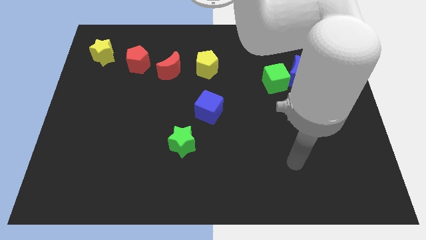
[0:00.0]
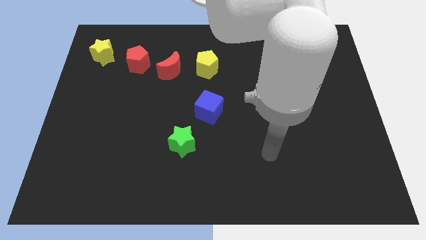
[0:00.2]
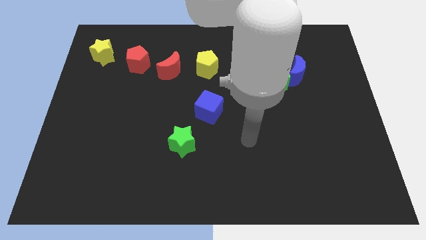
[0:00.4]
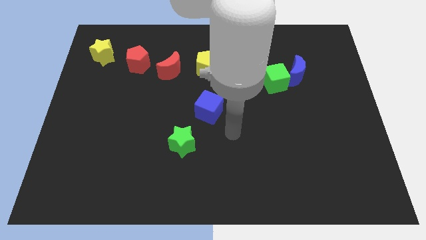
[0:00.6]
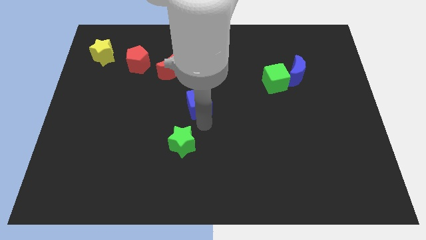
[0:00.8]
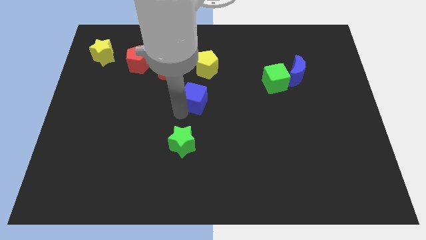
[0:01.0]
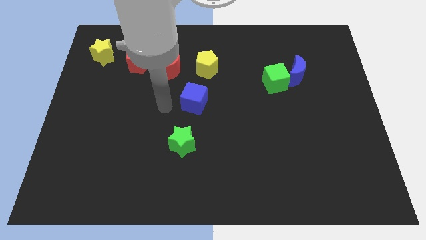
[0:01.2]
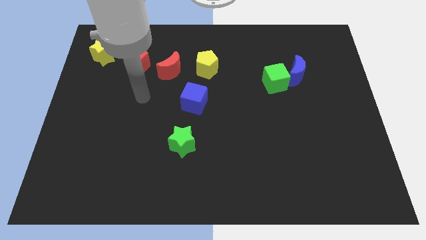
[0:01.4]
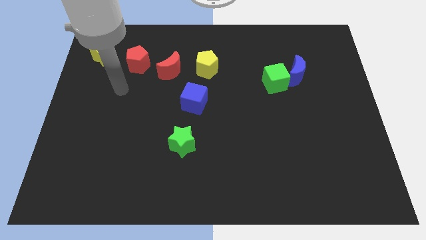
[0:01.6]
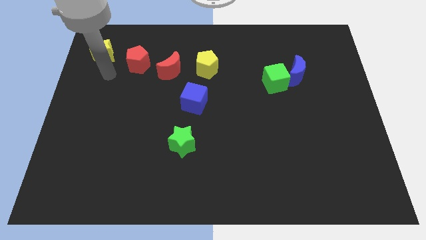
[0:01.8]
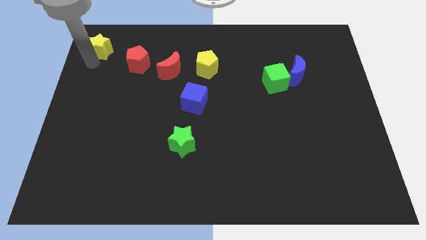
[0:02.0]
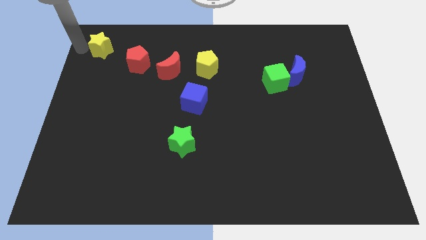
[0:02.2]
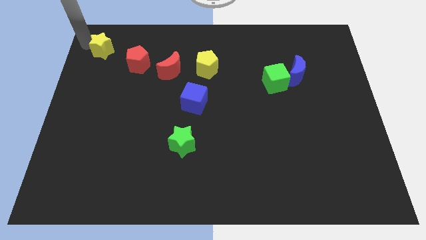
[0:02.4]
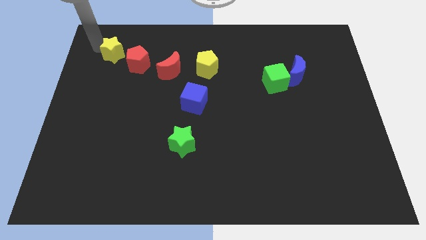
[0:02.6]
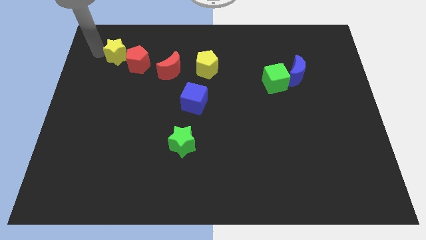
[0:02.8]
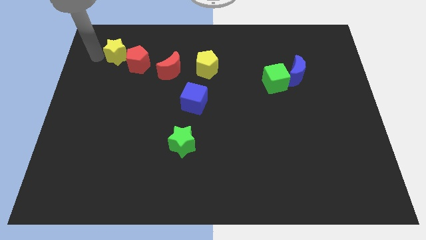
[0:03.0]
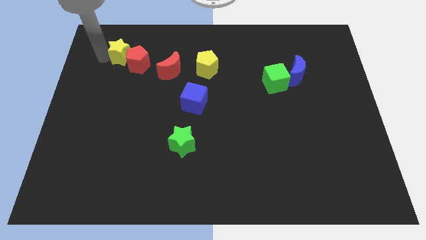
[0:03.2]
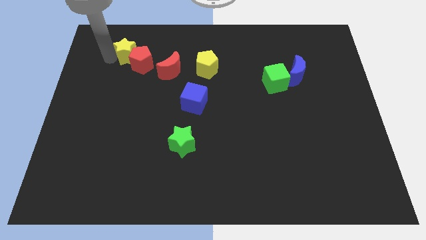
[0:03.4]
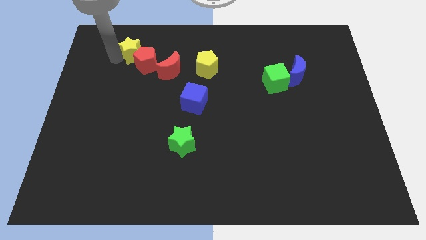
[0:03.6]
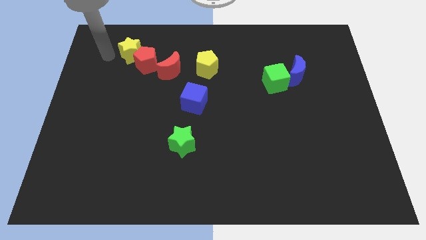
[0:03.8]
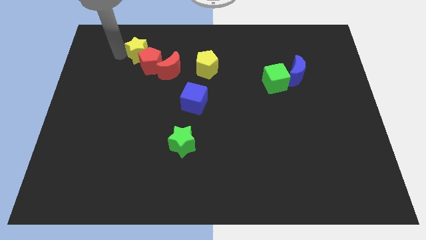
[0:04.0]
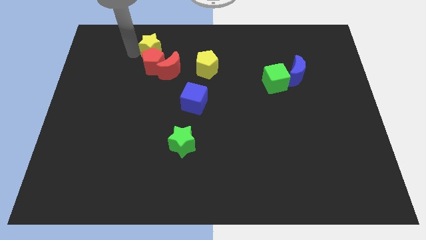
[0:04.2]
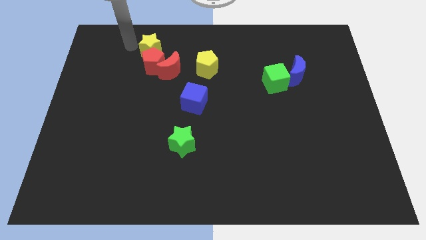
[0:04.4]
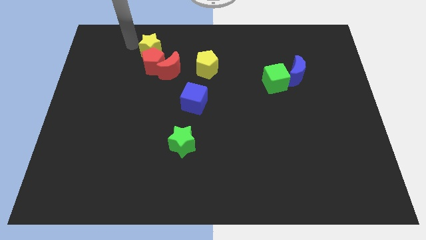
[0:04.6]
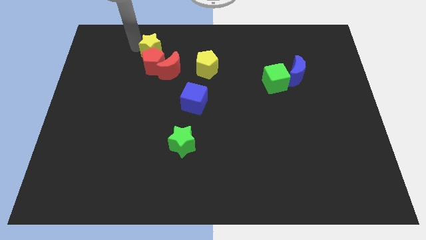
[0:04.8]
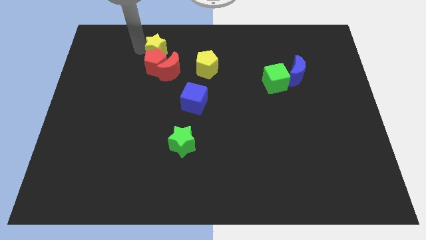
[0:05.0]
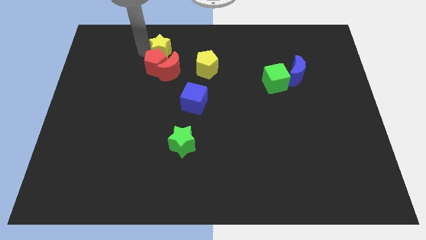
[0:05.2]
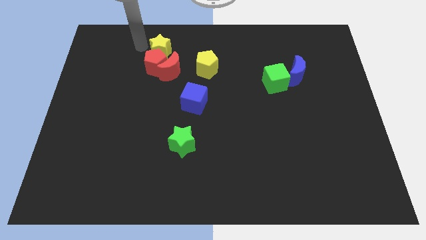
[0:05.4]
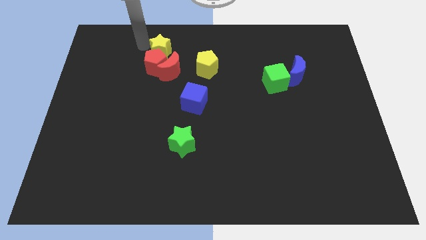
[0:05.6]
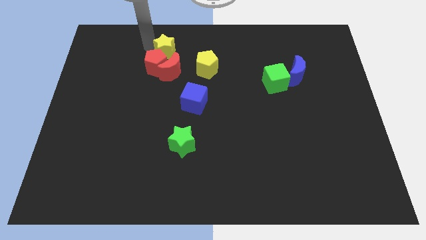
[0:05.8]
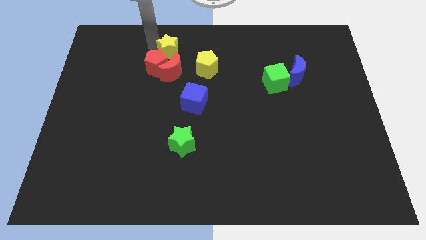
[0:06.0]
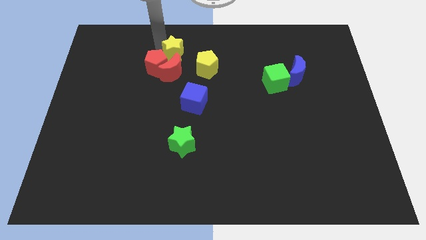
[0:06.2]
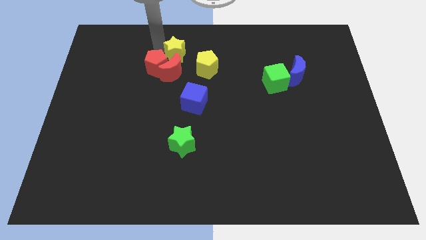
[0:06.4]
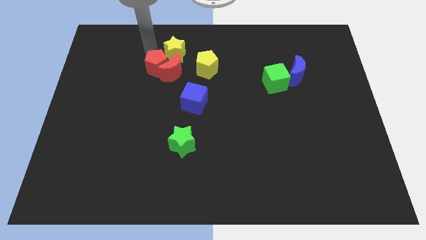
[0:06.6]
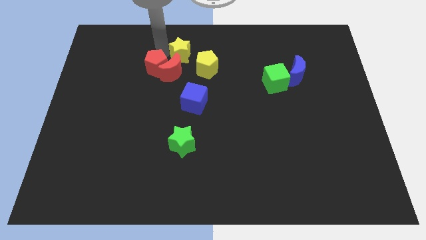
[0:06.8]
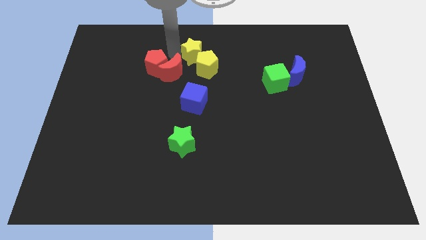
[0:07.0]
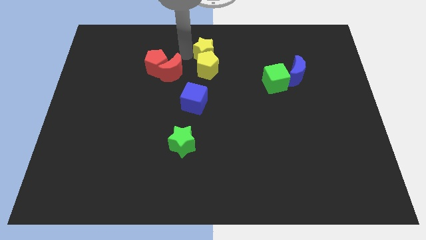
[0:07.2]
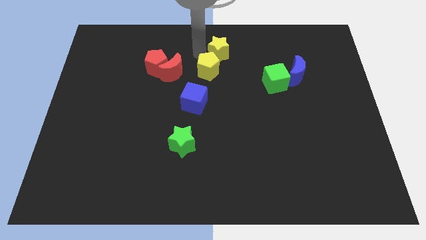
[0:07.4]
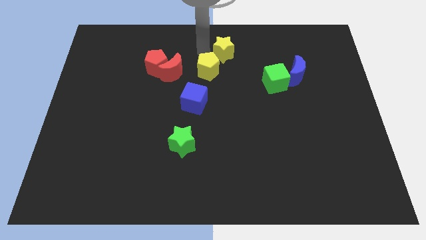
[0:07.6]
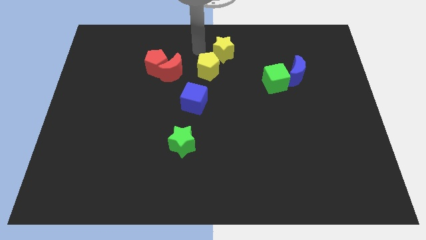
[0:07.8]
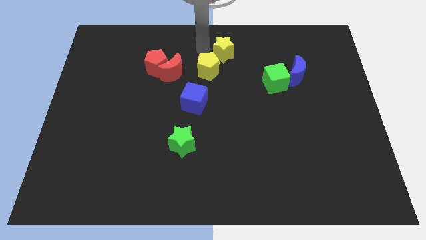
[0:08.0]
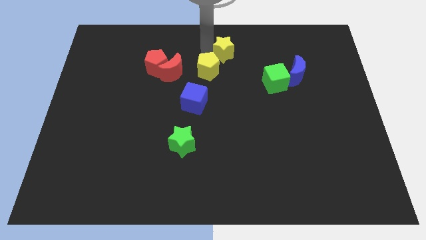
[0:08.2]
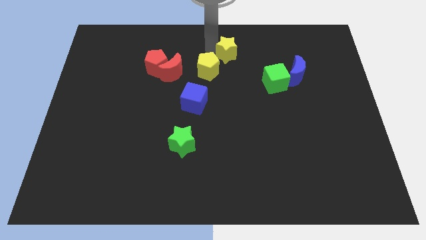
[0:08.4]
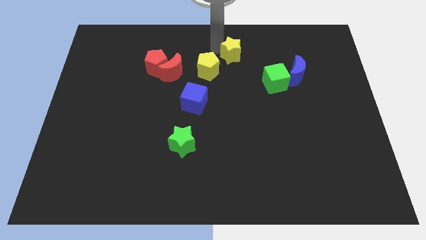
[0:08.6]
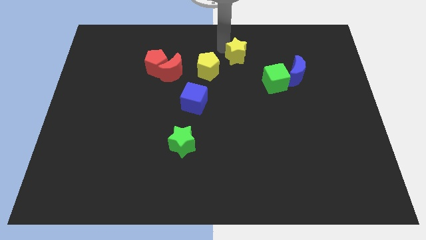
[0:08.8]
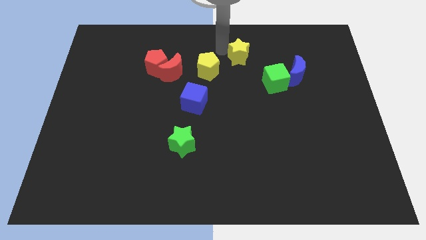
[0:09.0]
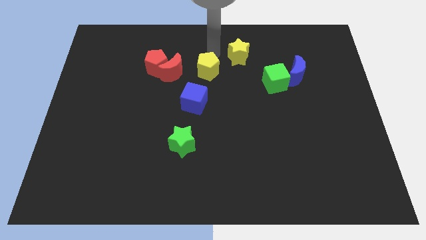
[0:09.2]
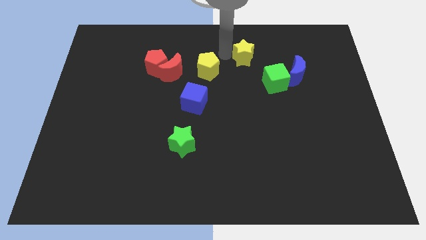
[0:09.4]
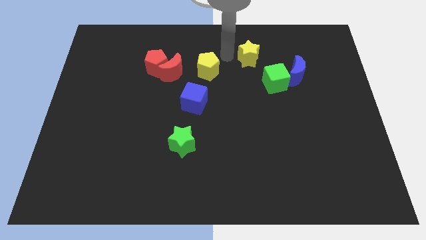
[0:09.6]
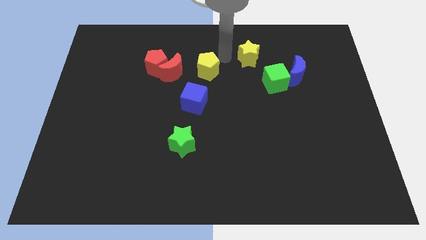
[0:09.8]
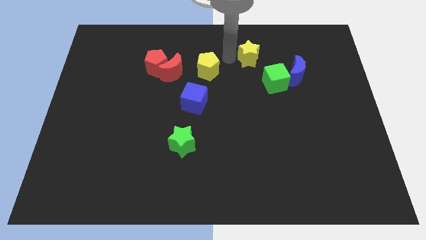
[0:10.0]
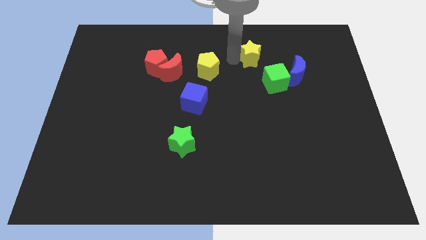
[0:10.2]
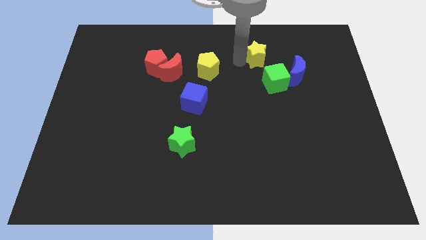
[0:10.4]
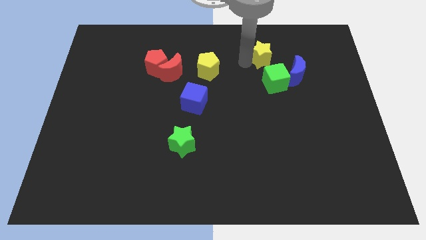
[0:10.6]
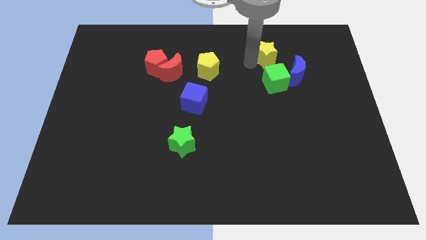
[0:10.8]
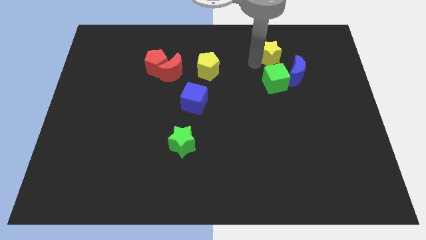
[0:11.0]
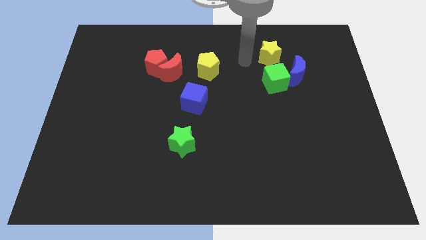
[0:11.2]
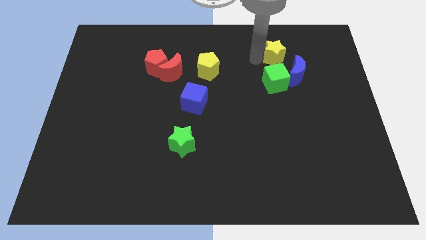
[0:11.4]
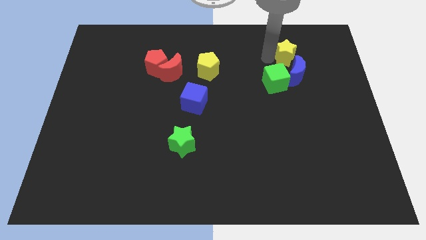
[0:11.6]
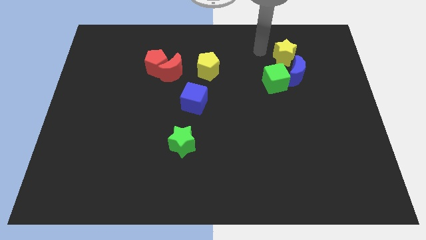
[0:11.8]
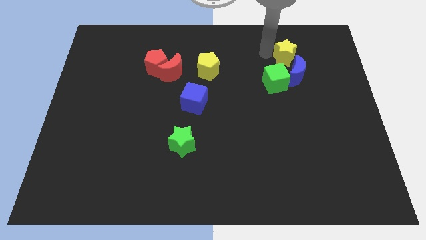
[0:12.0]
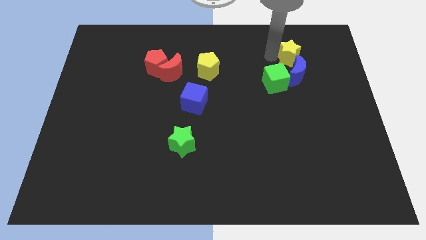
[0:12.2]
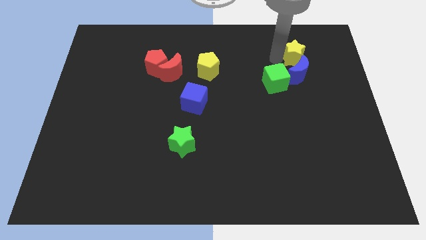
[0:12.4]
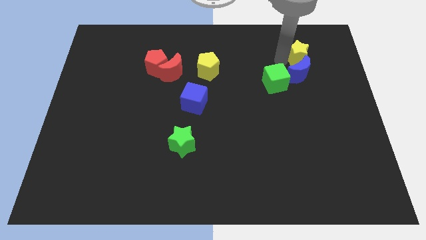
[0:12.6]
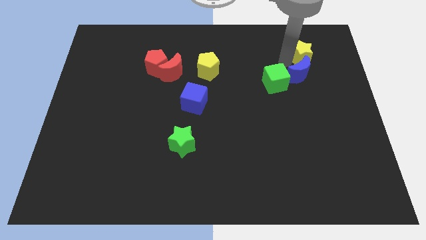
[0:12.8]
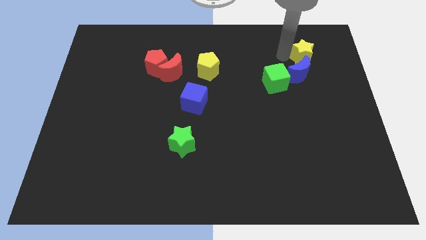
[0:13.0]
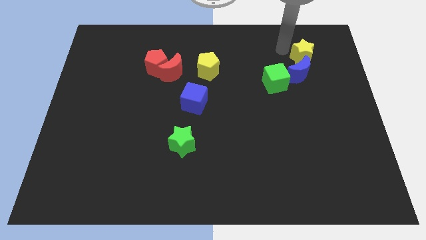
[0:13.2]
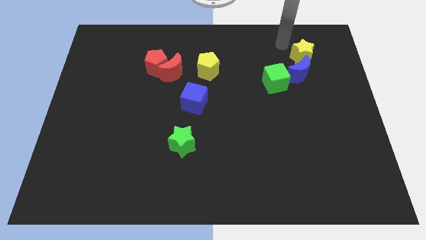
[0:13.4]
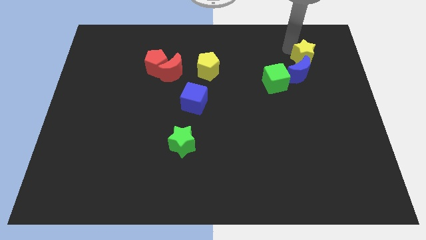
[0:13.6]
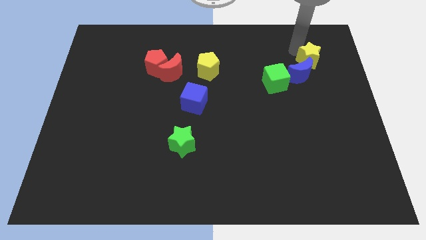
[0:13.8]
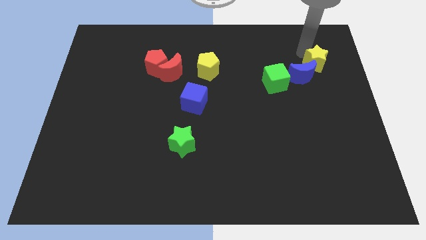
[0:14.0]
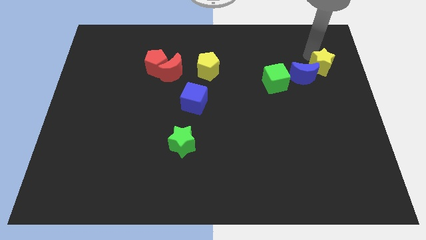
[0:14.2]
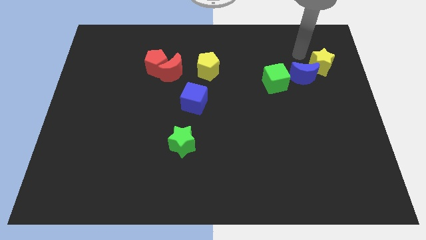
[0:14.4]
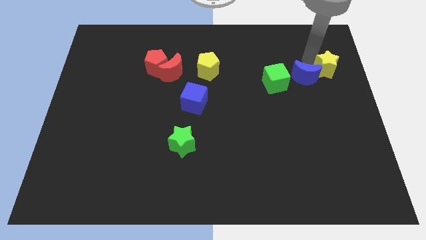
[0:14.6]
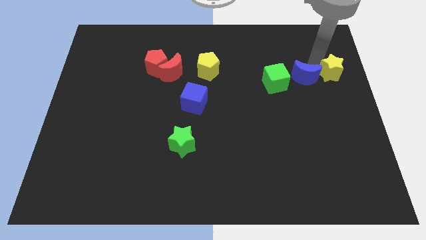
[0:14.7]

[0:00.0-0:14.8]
push the yellow star to the right side of the board
